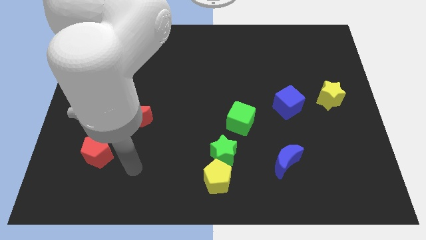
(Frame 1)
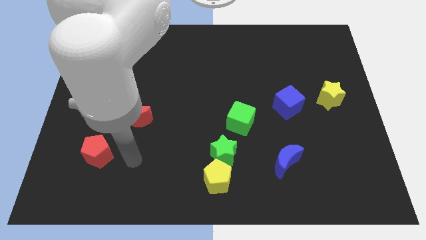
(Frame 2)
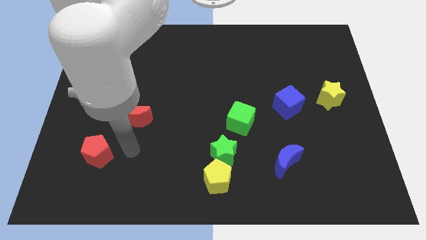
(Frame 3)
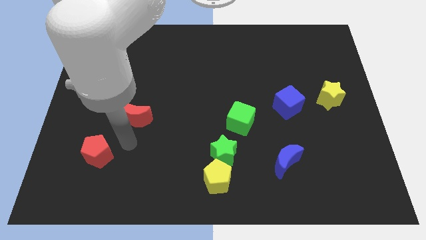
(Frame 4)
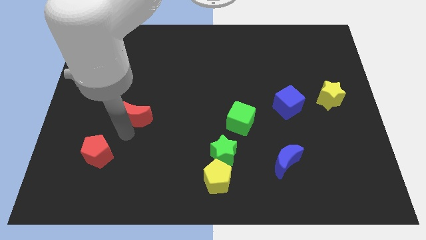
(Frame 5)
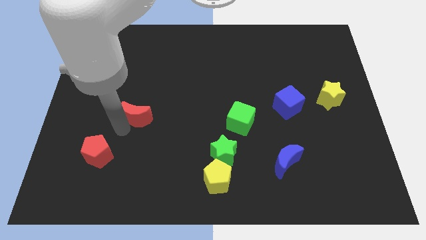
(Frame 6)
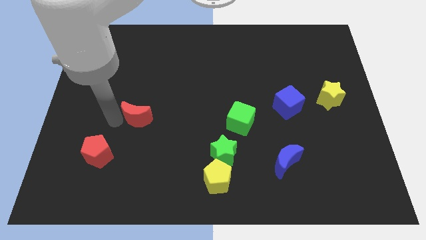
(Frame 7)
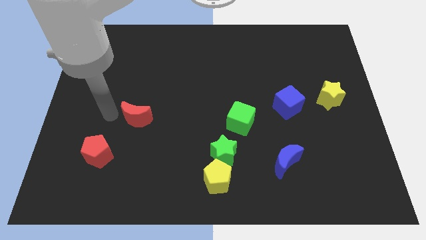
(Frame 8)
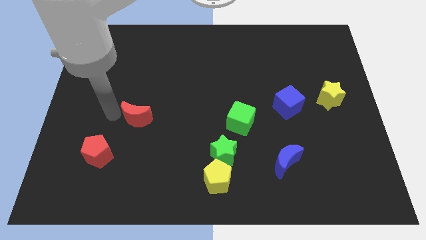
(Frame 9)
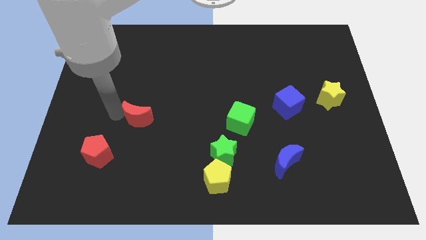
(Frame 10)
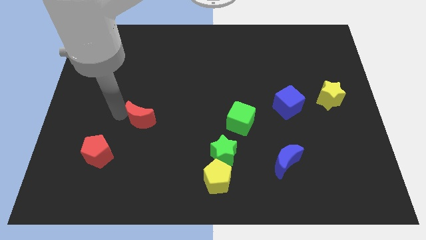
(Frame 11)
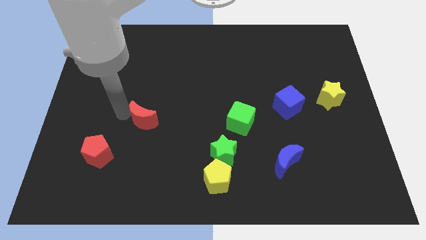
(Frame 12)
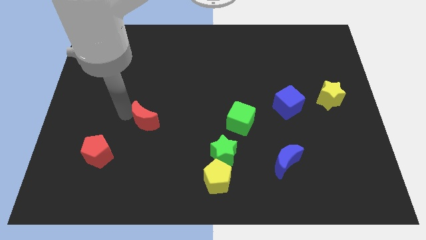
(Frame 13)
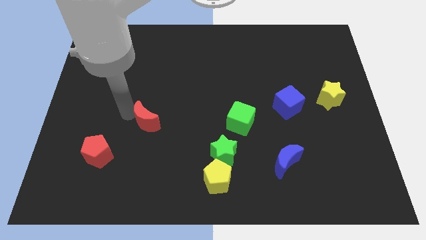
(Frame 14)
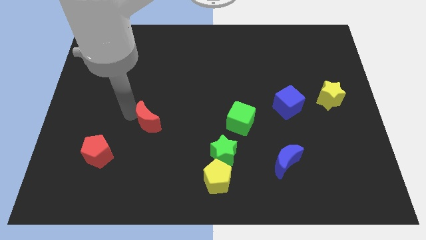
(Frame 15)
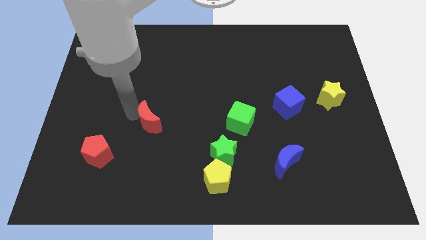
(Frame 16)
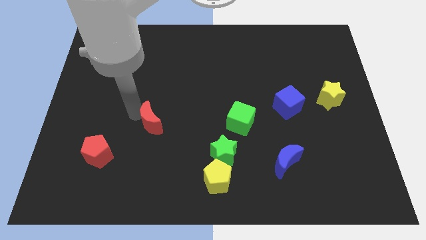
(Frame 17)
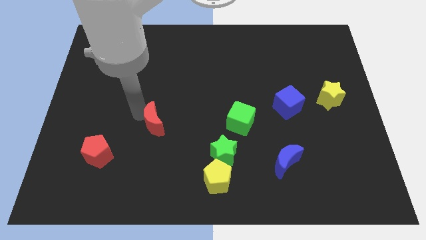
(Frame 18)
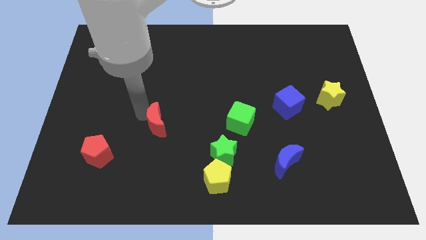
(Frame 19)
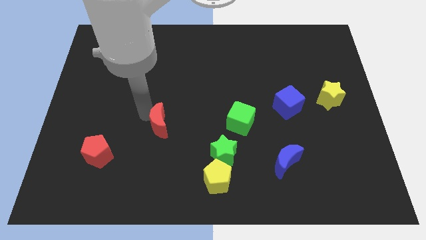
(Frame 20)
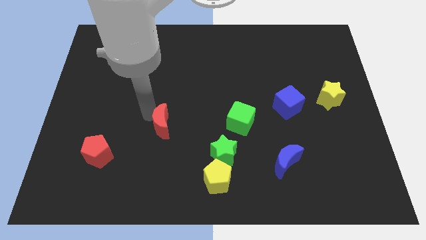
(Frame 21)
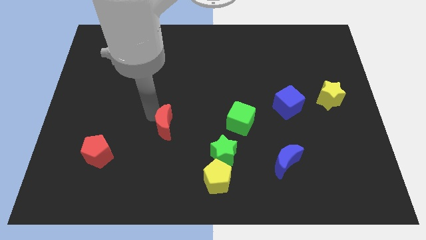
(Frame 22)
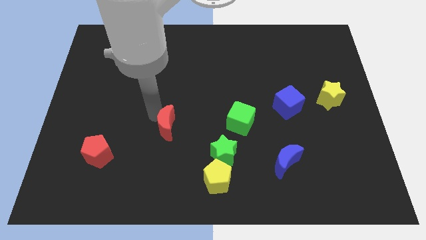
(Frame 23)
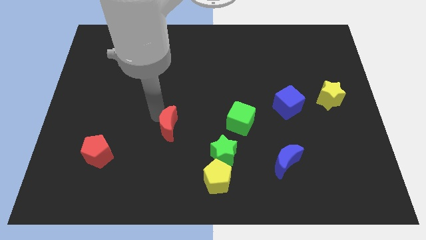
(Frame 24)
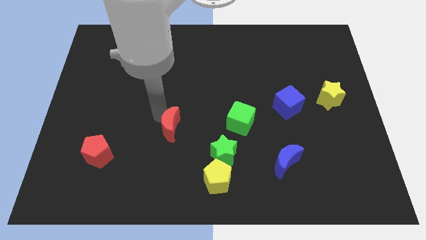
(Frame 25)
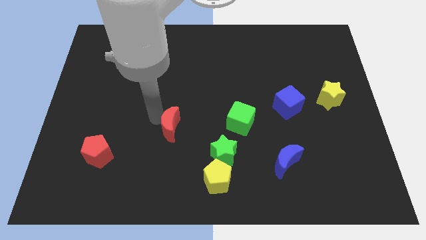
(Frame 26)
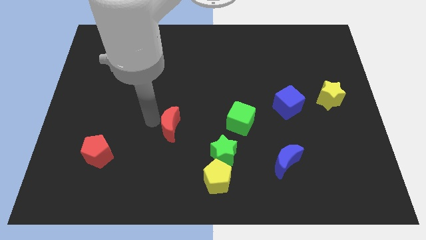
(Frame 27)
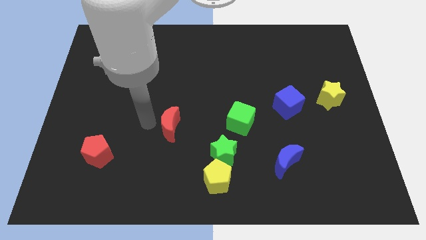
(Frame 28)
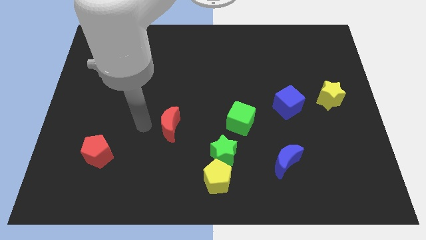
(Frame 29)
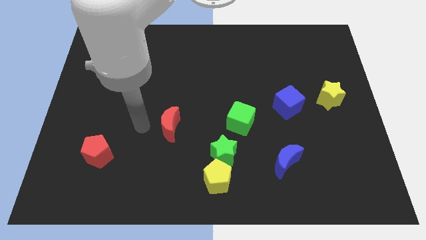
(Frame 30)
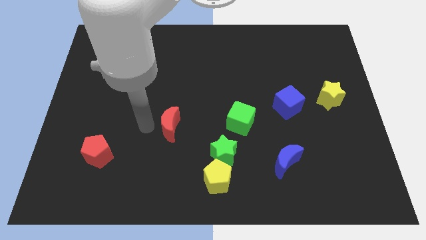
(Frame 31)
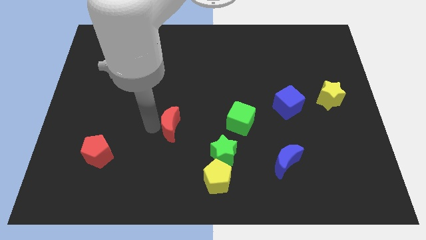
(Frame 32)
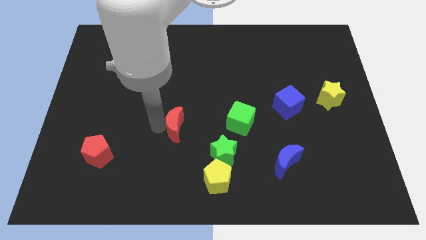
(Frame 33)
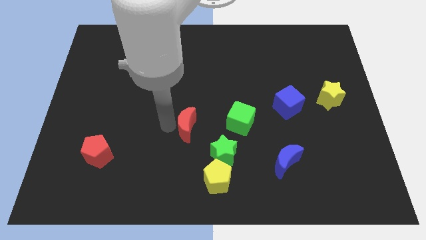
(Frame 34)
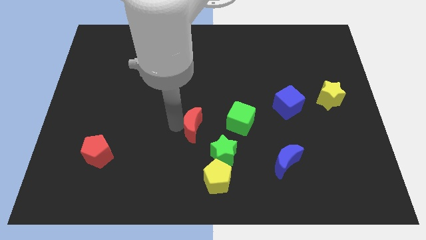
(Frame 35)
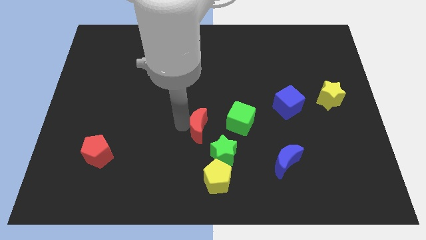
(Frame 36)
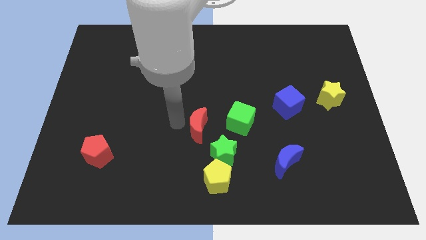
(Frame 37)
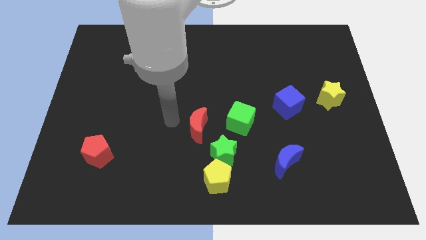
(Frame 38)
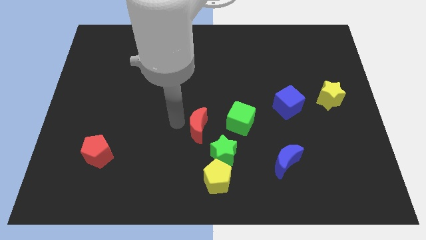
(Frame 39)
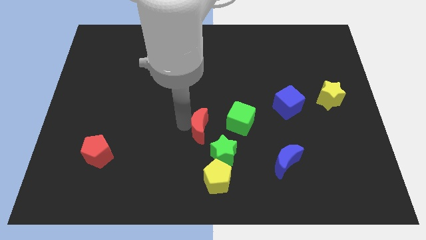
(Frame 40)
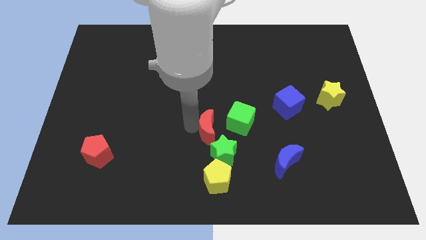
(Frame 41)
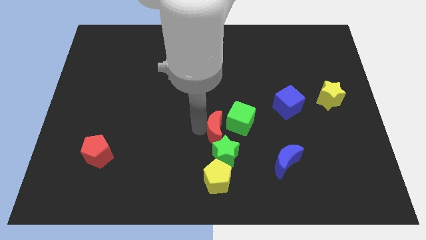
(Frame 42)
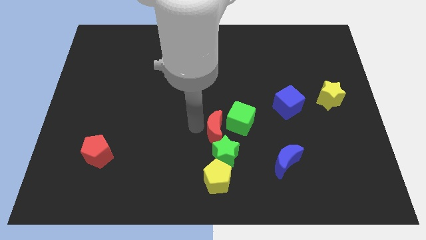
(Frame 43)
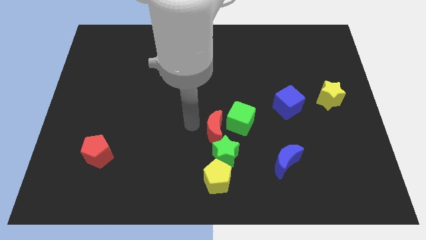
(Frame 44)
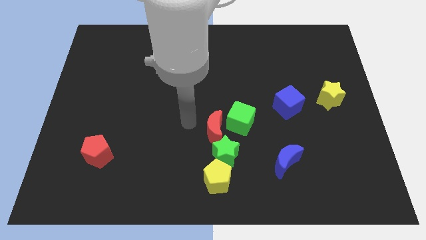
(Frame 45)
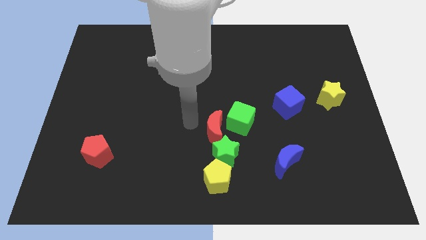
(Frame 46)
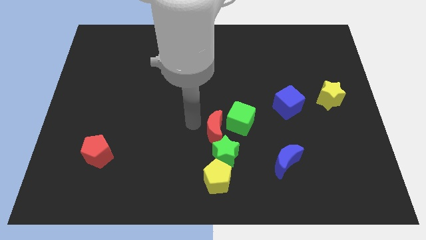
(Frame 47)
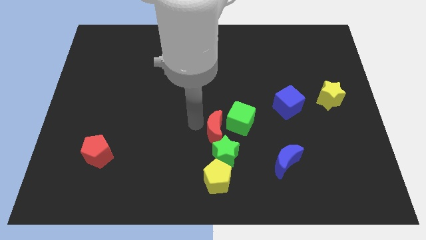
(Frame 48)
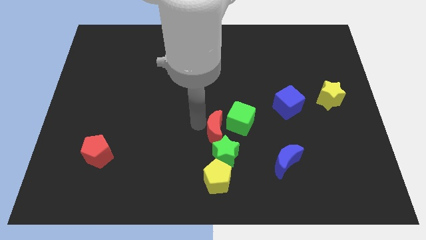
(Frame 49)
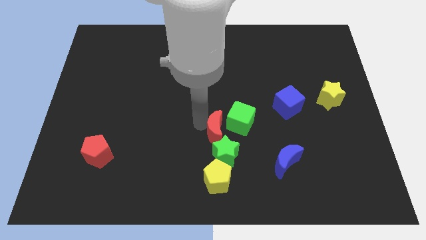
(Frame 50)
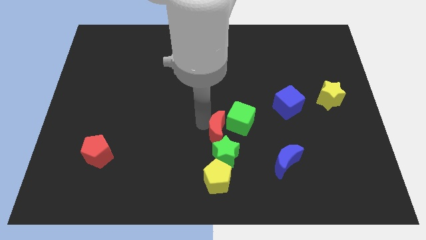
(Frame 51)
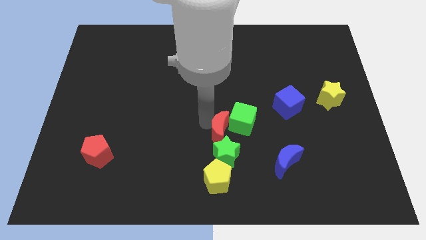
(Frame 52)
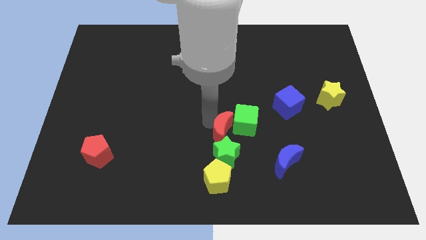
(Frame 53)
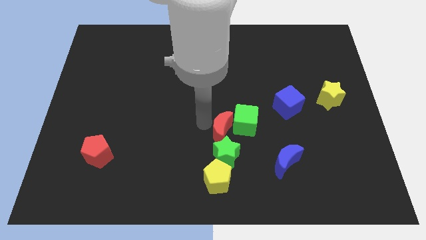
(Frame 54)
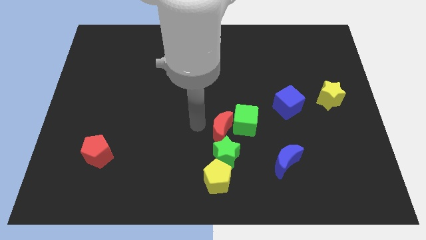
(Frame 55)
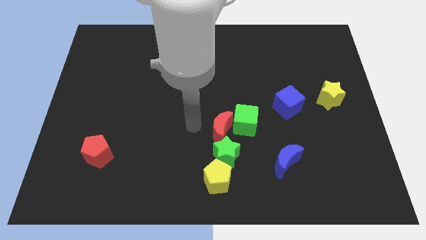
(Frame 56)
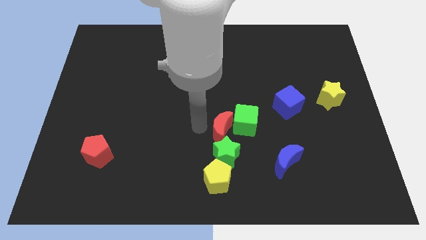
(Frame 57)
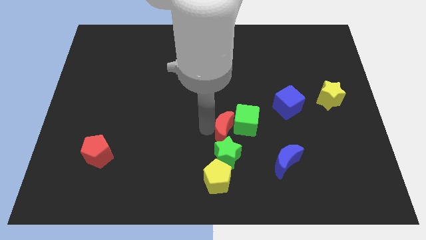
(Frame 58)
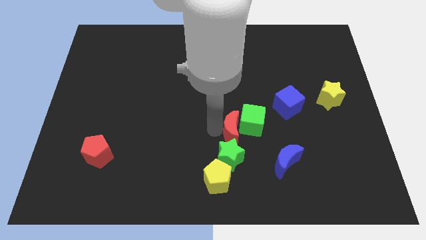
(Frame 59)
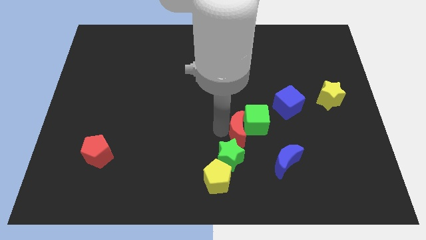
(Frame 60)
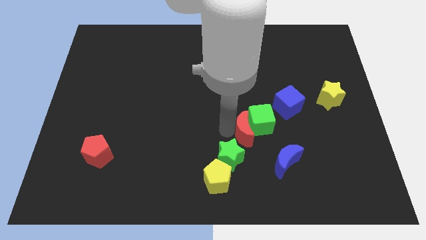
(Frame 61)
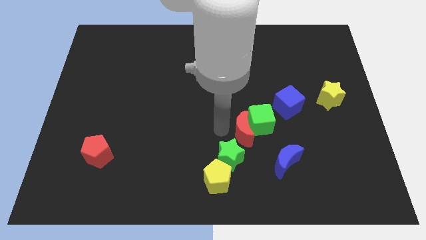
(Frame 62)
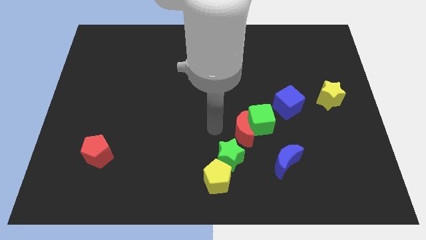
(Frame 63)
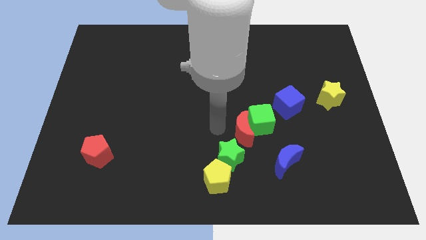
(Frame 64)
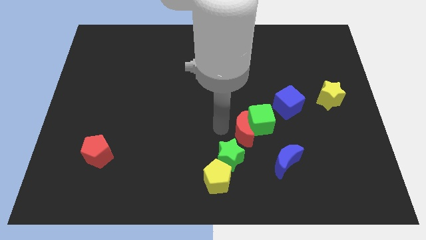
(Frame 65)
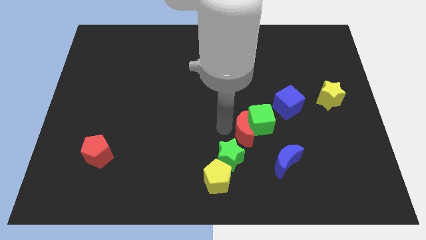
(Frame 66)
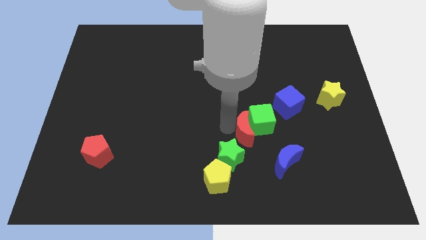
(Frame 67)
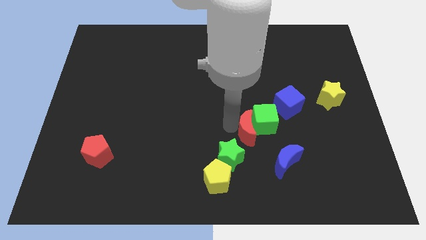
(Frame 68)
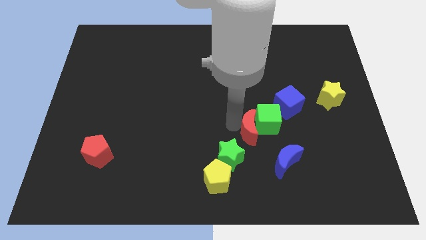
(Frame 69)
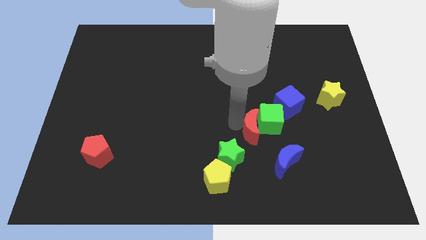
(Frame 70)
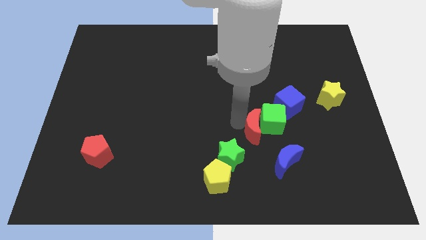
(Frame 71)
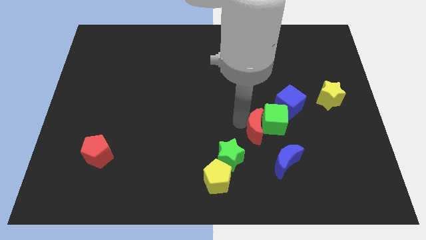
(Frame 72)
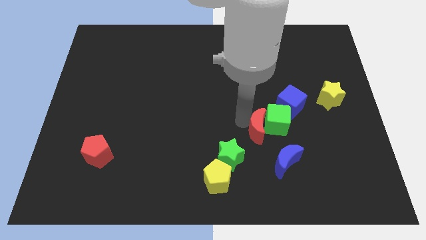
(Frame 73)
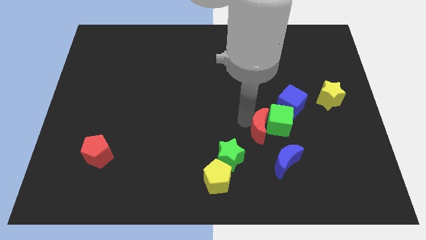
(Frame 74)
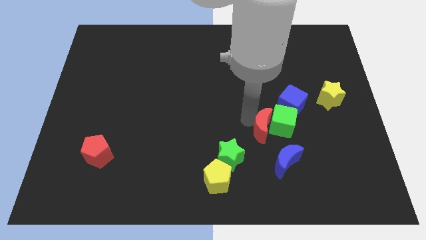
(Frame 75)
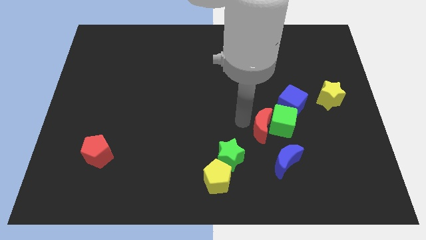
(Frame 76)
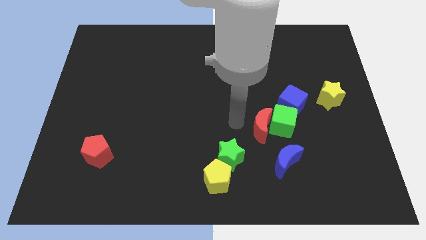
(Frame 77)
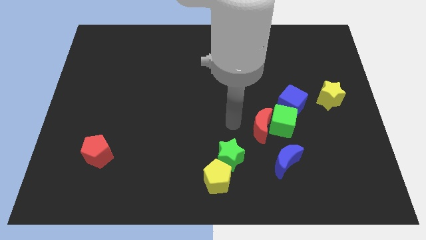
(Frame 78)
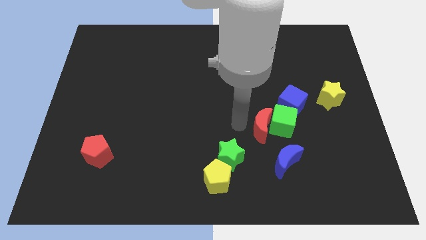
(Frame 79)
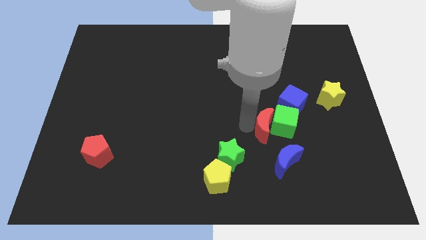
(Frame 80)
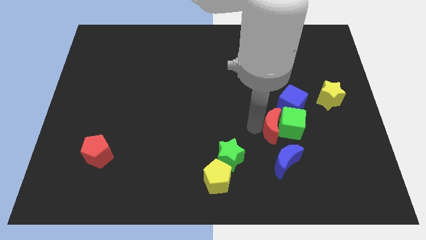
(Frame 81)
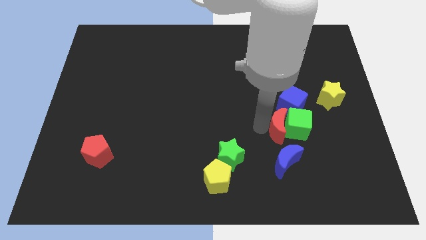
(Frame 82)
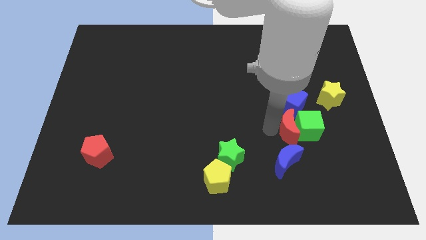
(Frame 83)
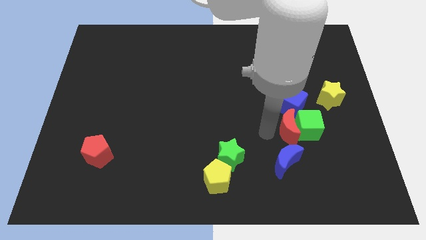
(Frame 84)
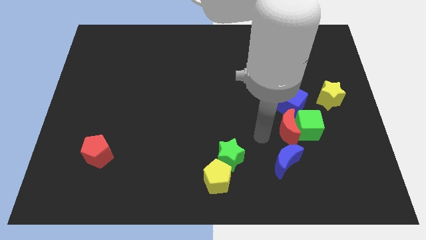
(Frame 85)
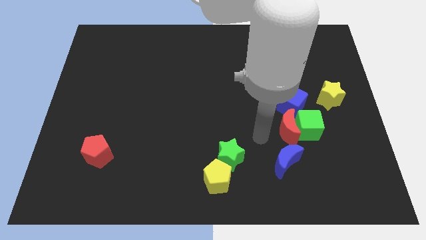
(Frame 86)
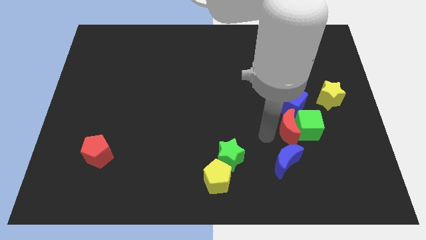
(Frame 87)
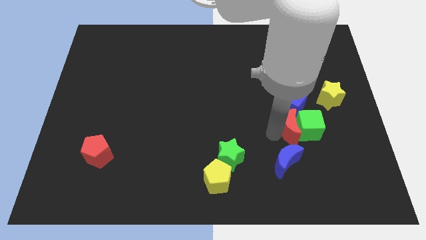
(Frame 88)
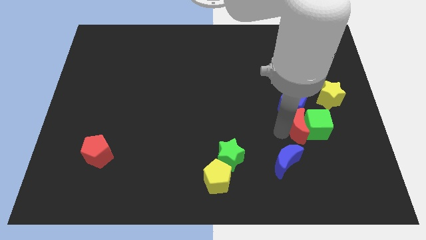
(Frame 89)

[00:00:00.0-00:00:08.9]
slide the red moon diagonally down and to the right of the blue cube
